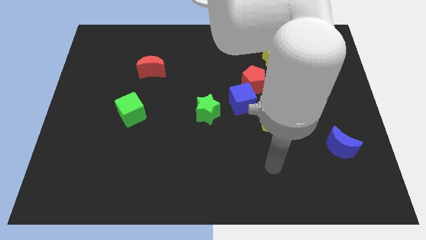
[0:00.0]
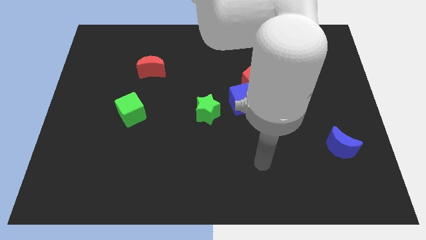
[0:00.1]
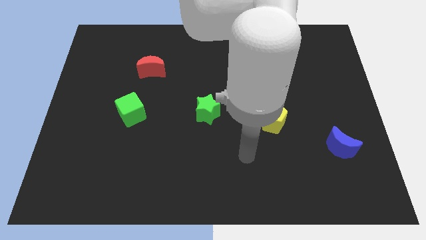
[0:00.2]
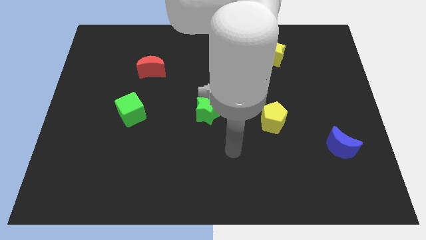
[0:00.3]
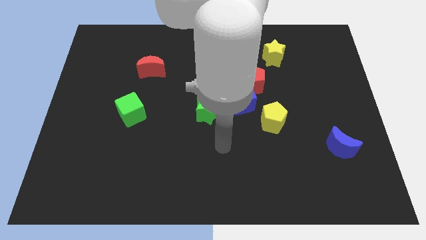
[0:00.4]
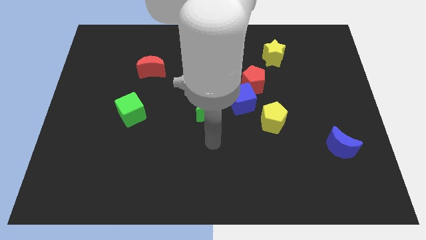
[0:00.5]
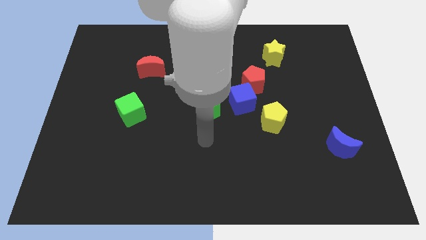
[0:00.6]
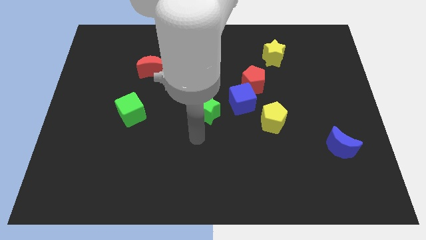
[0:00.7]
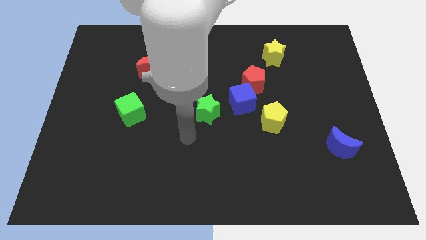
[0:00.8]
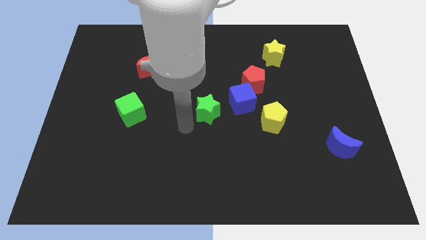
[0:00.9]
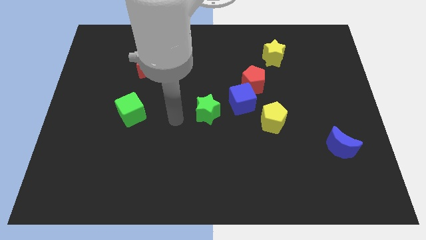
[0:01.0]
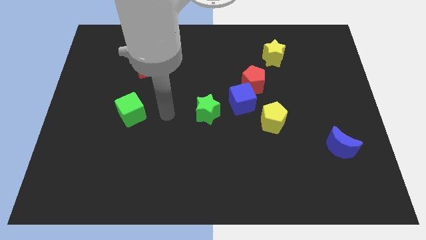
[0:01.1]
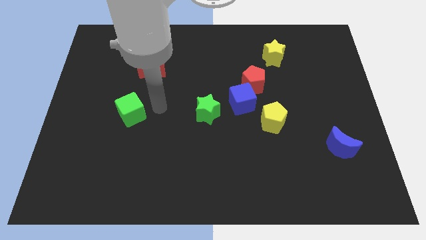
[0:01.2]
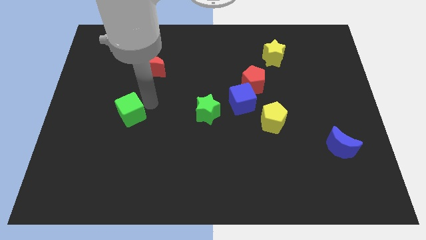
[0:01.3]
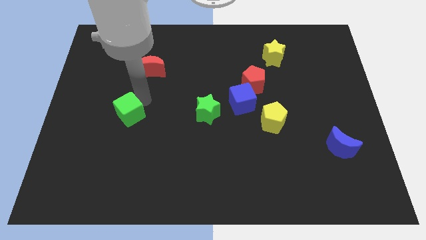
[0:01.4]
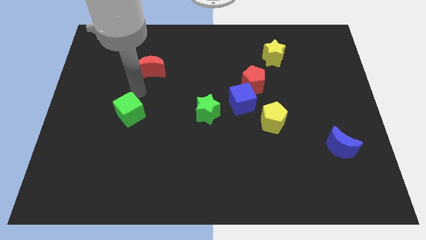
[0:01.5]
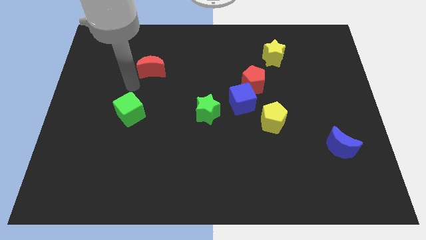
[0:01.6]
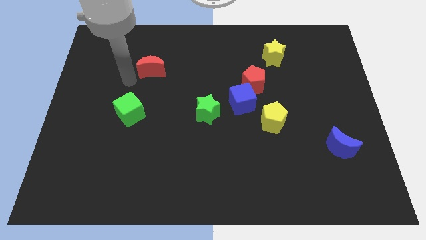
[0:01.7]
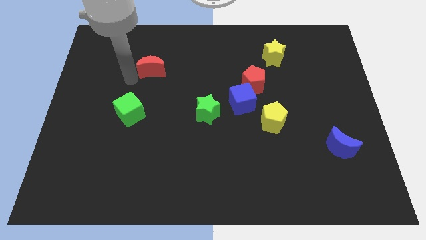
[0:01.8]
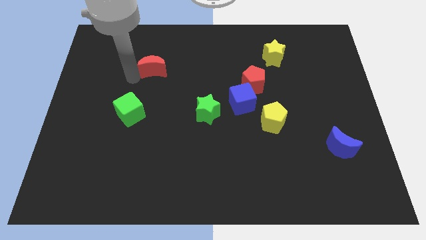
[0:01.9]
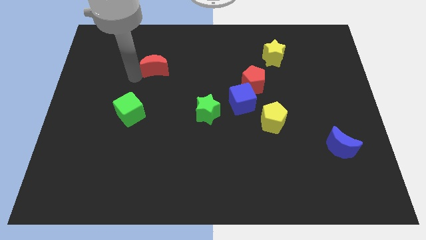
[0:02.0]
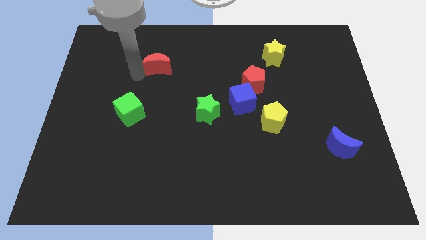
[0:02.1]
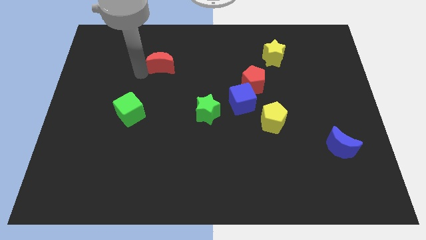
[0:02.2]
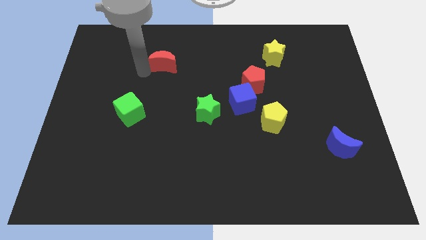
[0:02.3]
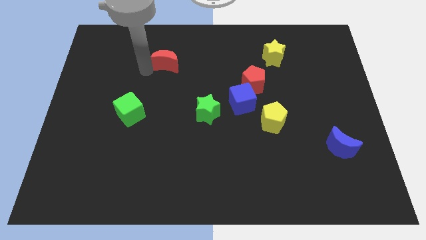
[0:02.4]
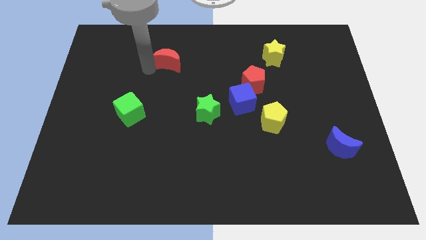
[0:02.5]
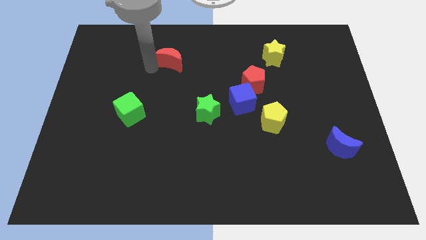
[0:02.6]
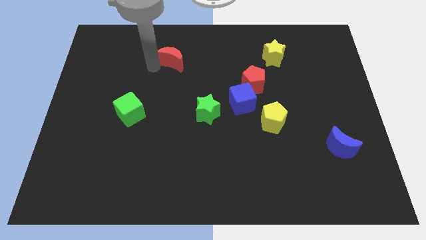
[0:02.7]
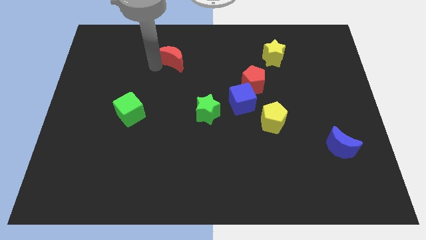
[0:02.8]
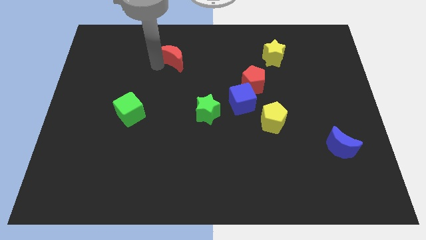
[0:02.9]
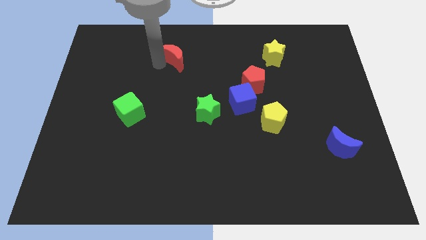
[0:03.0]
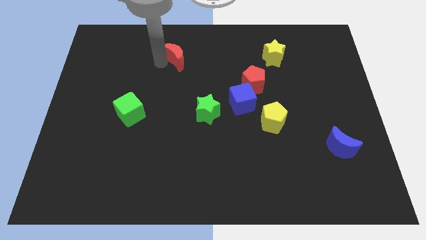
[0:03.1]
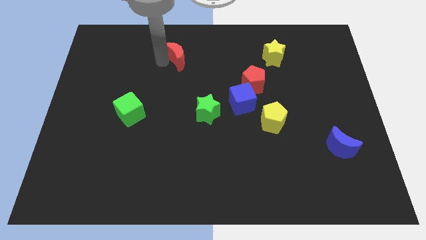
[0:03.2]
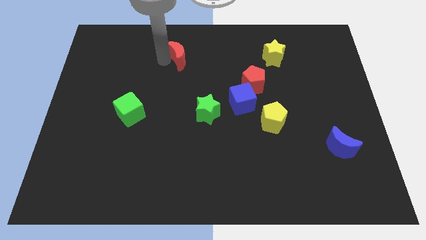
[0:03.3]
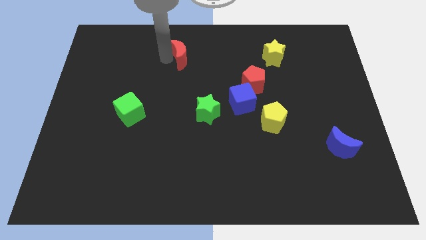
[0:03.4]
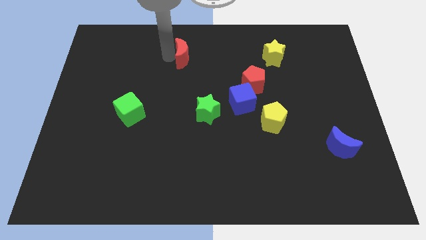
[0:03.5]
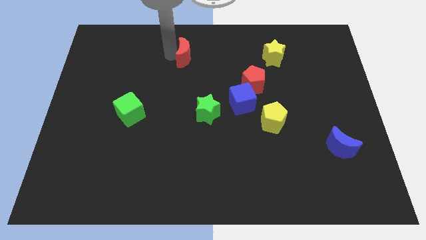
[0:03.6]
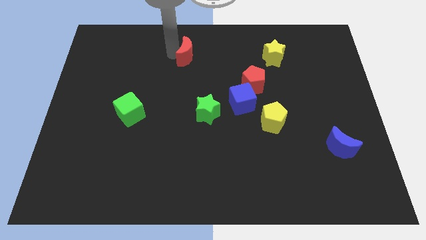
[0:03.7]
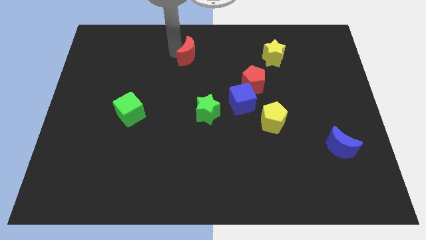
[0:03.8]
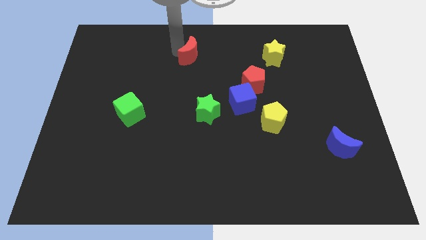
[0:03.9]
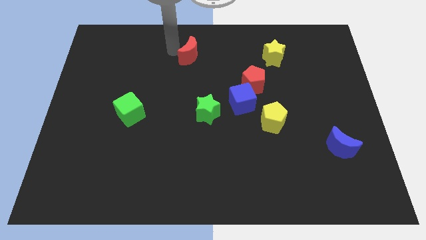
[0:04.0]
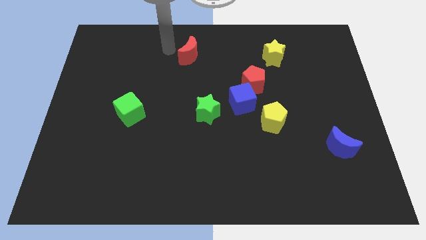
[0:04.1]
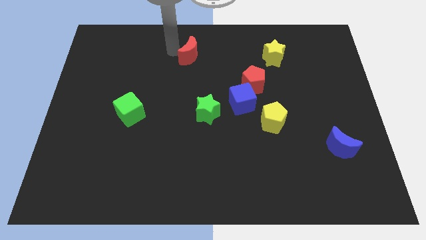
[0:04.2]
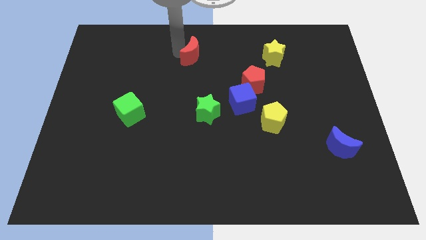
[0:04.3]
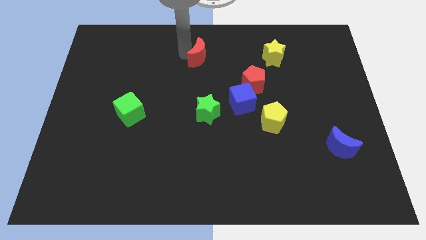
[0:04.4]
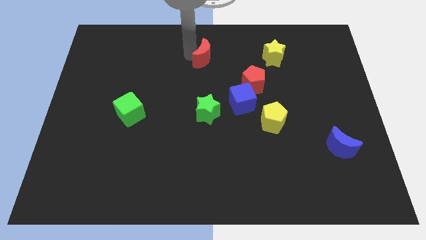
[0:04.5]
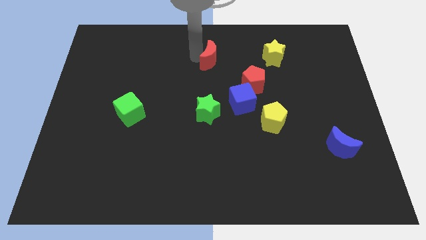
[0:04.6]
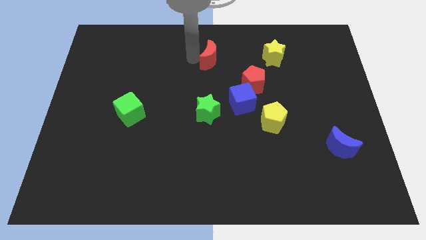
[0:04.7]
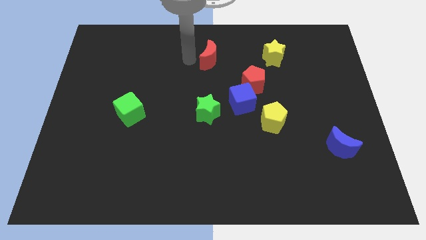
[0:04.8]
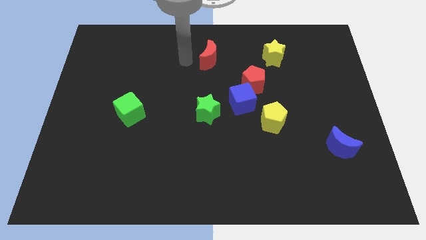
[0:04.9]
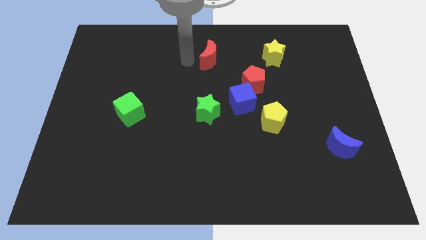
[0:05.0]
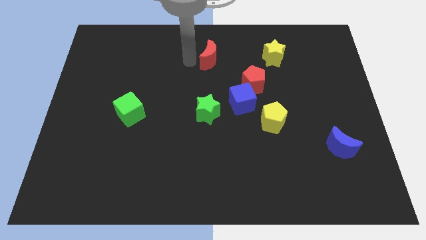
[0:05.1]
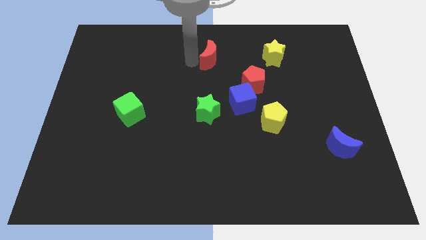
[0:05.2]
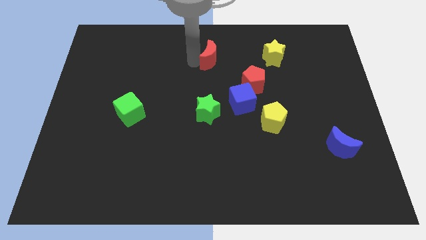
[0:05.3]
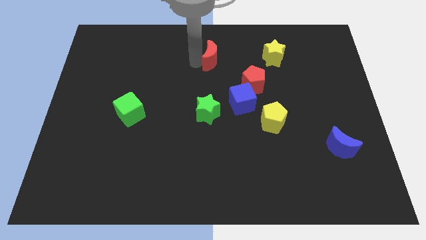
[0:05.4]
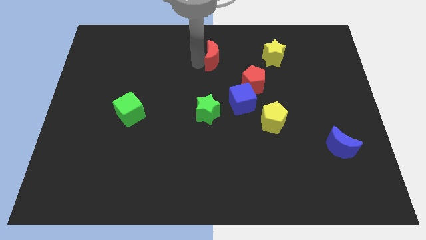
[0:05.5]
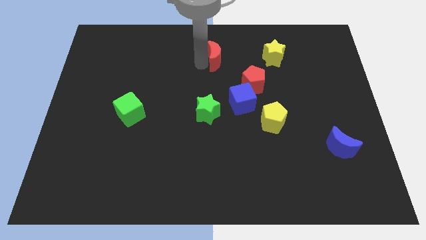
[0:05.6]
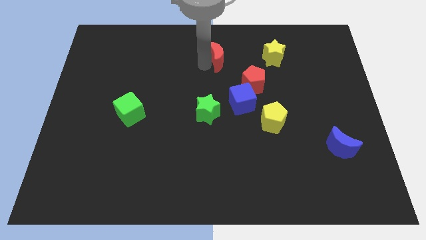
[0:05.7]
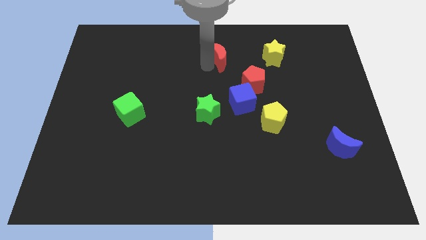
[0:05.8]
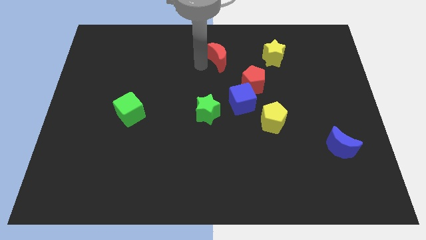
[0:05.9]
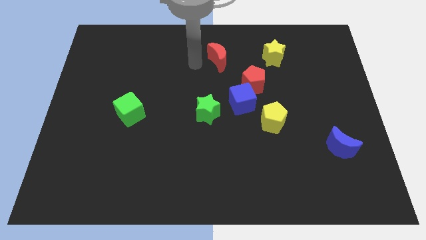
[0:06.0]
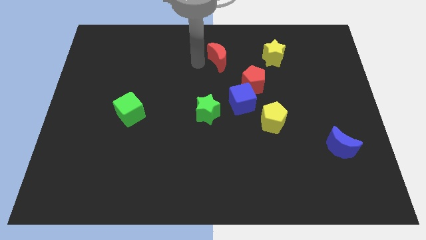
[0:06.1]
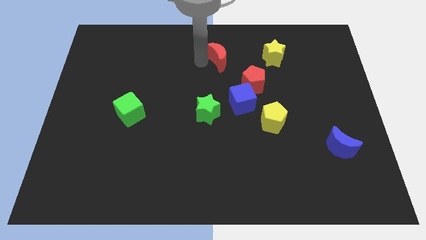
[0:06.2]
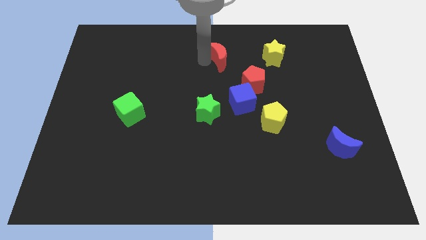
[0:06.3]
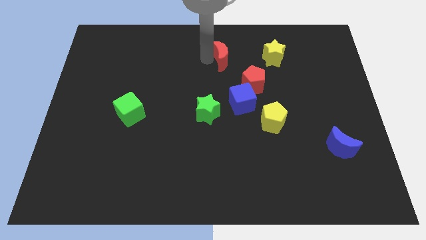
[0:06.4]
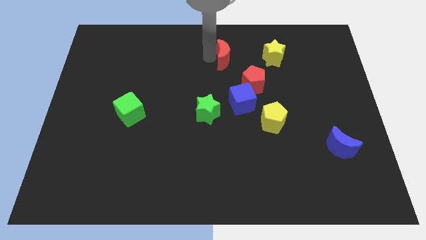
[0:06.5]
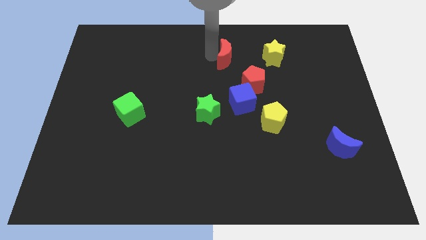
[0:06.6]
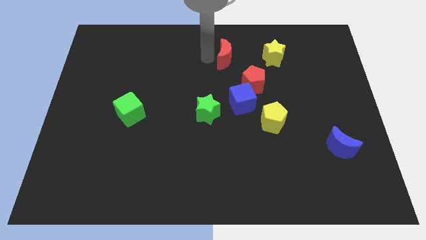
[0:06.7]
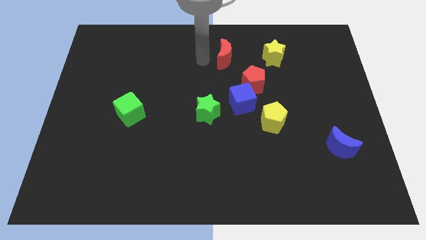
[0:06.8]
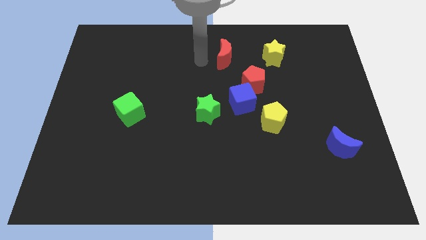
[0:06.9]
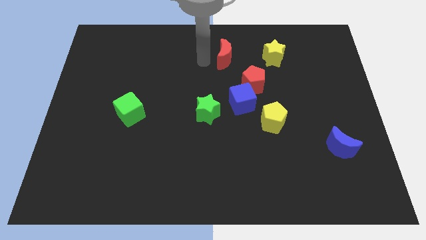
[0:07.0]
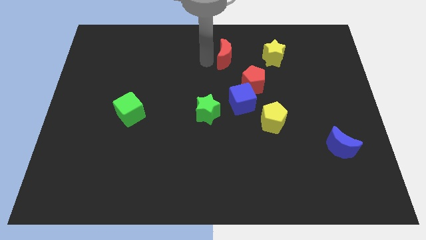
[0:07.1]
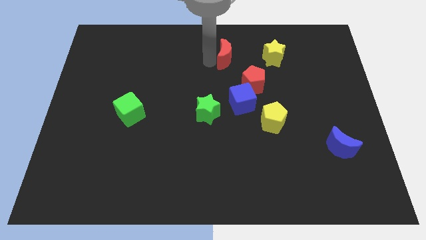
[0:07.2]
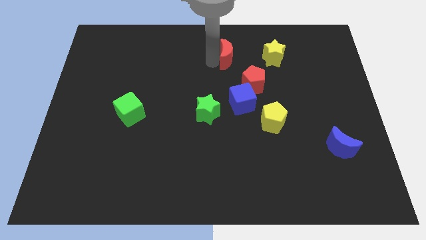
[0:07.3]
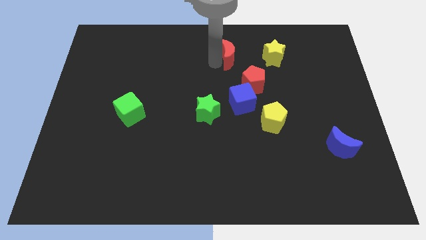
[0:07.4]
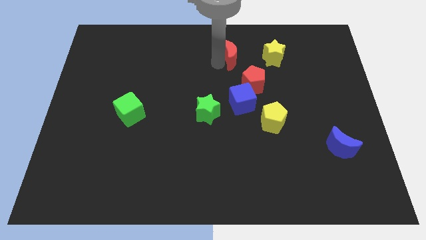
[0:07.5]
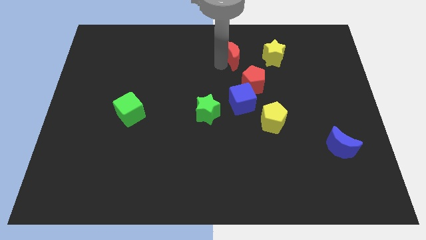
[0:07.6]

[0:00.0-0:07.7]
move the red moon to the top side of the red pentagon
